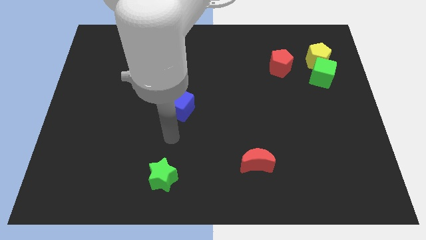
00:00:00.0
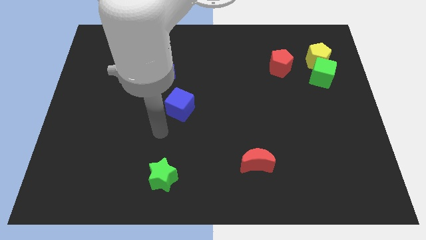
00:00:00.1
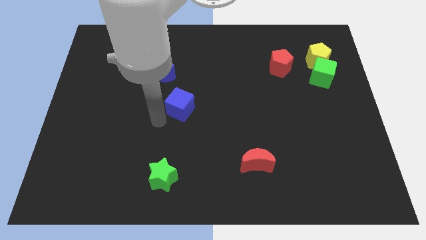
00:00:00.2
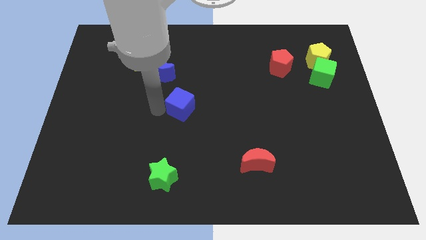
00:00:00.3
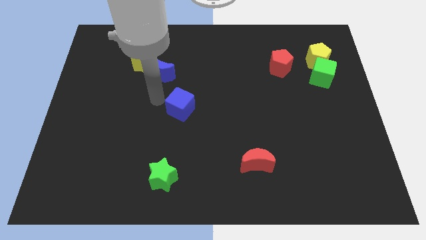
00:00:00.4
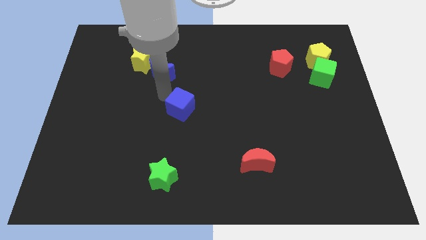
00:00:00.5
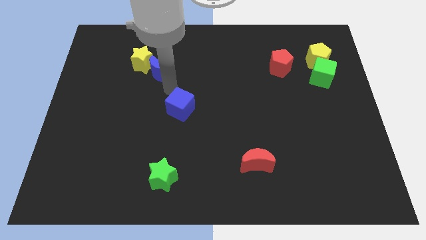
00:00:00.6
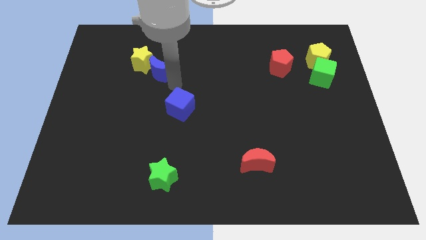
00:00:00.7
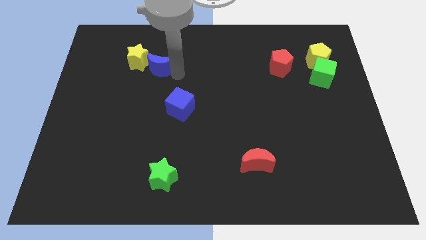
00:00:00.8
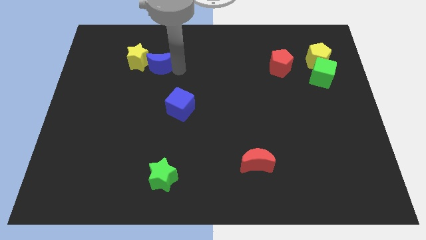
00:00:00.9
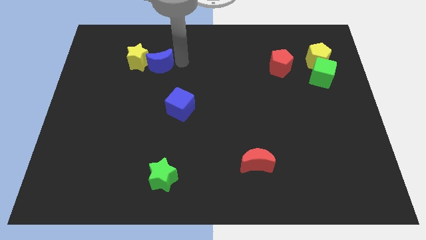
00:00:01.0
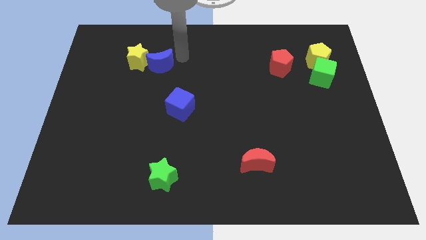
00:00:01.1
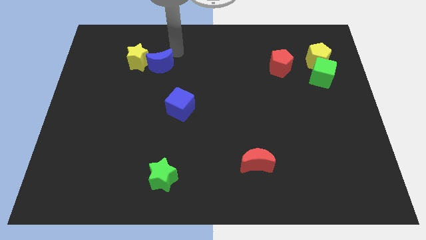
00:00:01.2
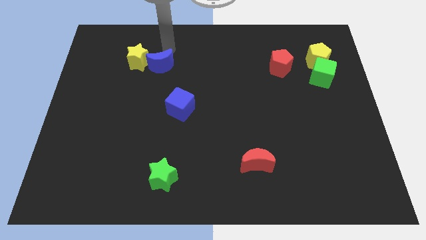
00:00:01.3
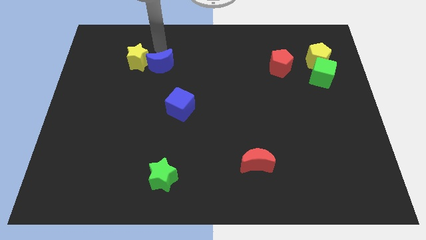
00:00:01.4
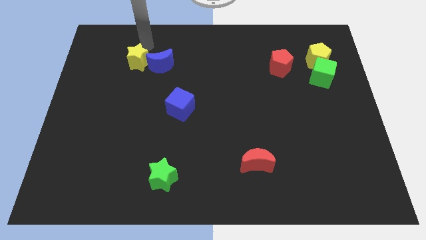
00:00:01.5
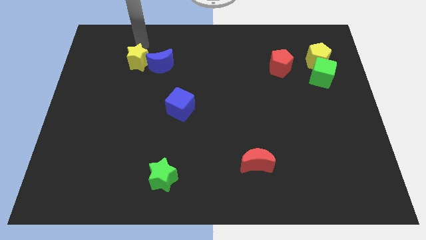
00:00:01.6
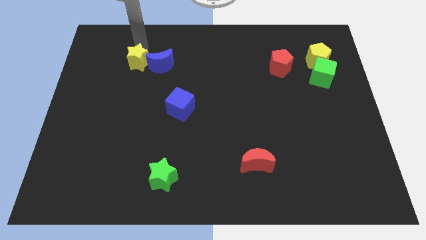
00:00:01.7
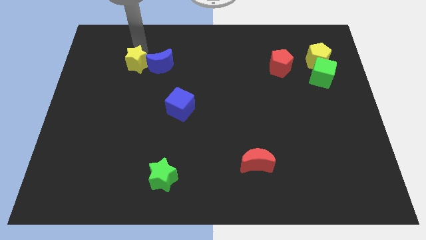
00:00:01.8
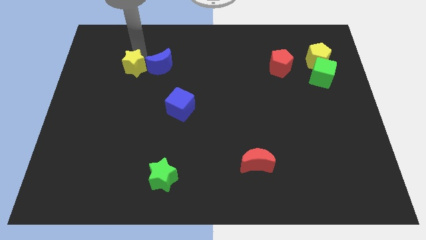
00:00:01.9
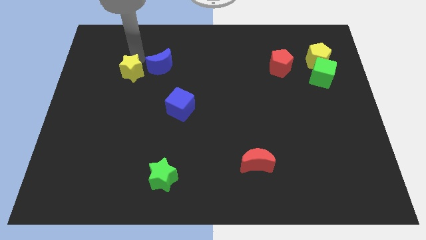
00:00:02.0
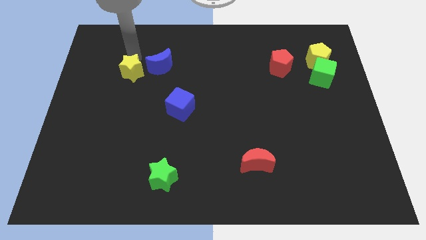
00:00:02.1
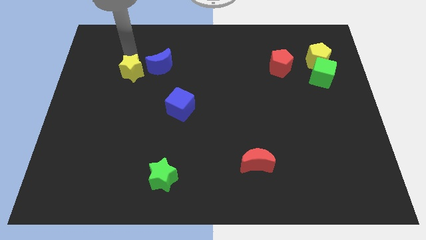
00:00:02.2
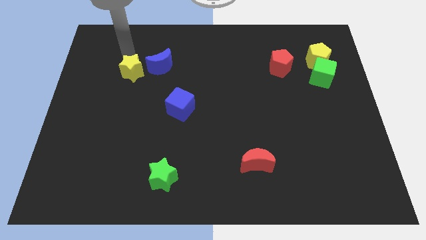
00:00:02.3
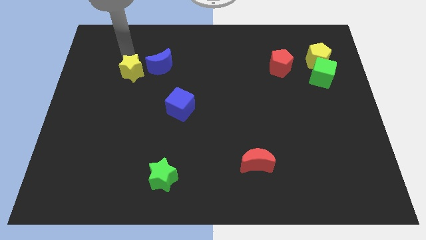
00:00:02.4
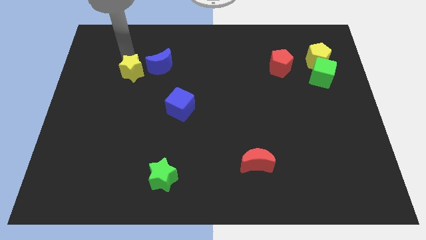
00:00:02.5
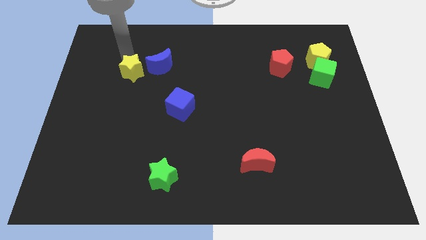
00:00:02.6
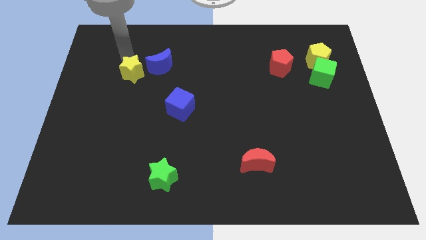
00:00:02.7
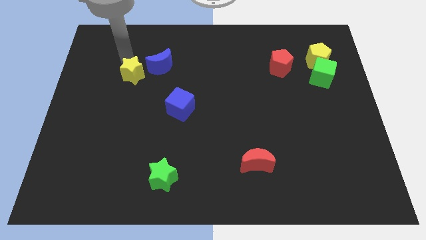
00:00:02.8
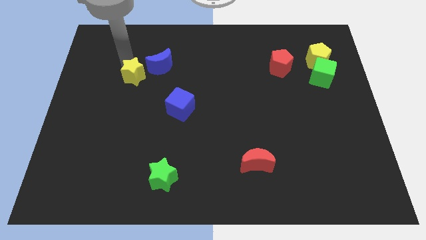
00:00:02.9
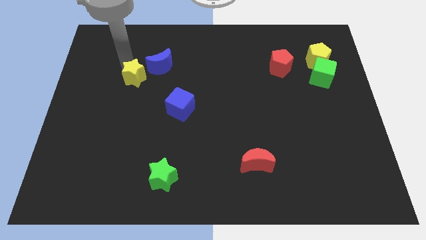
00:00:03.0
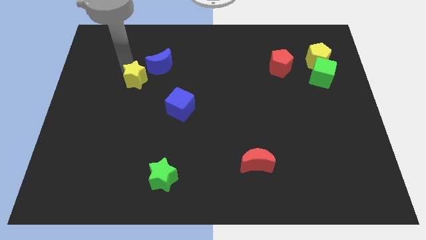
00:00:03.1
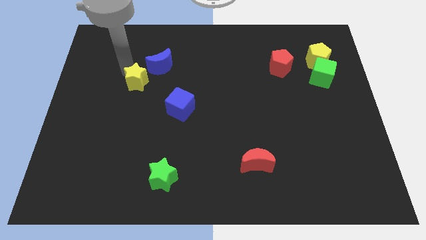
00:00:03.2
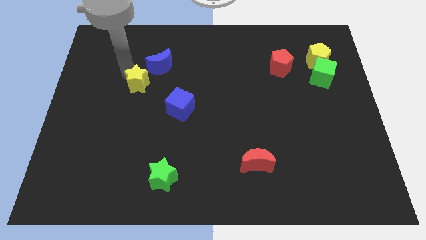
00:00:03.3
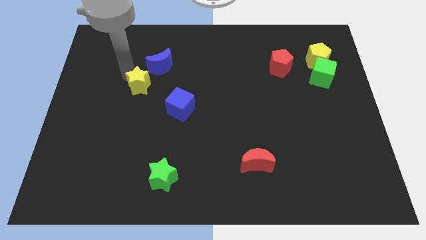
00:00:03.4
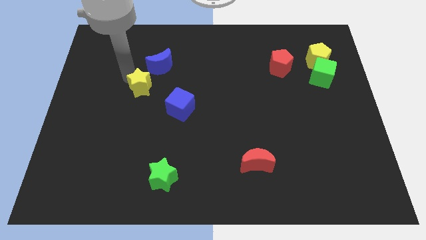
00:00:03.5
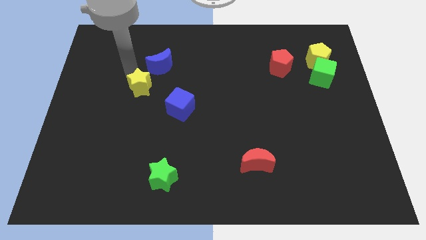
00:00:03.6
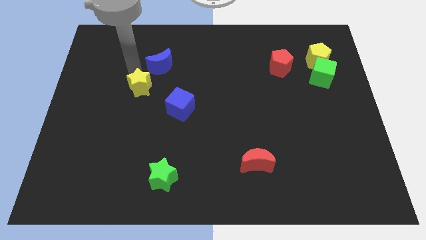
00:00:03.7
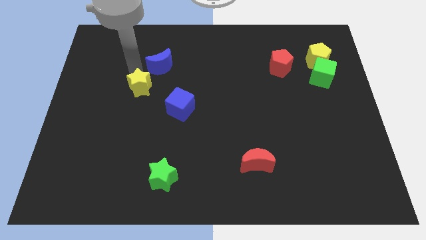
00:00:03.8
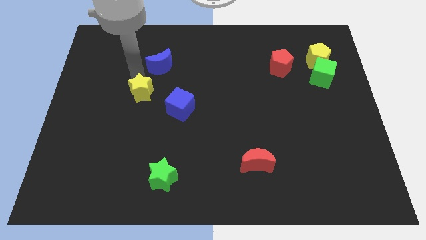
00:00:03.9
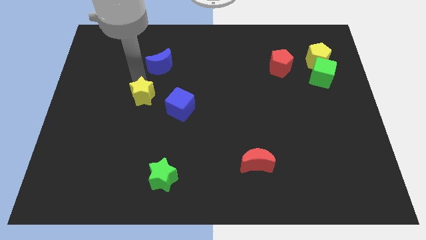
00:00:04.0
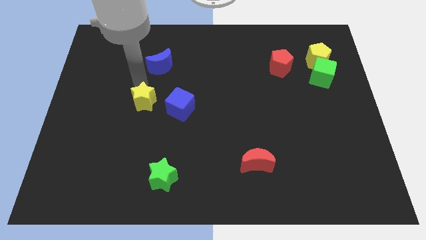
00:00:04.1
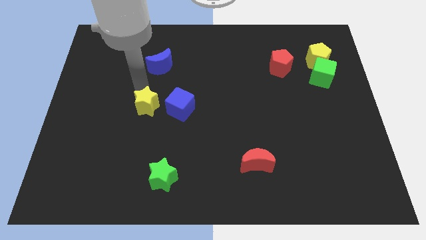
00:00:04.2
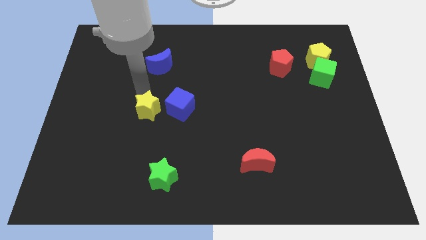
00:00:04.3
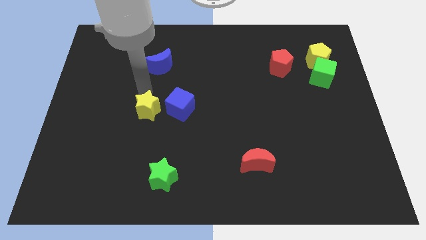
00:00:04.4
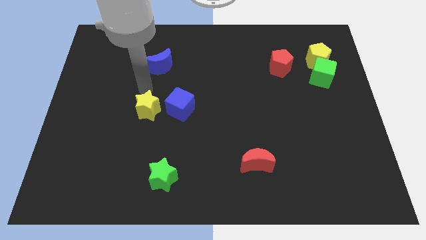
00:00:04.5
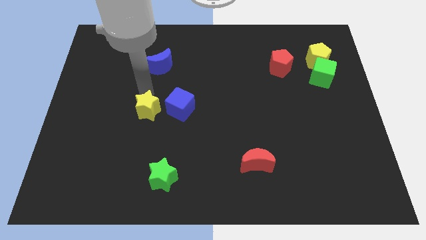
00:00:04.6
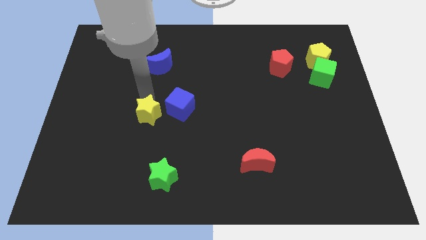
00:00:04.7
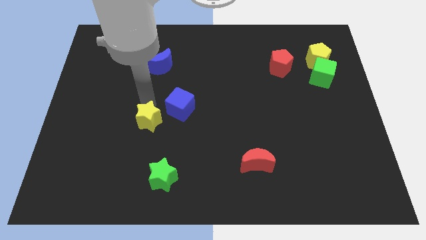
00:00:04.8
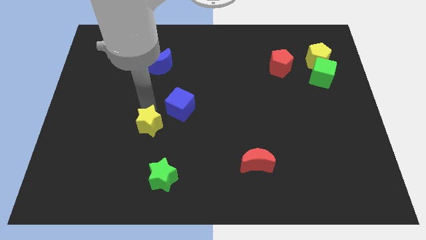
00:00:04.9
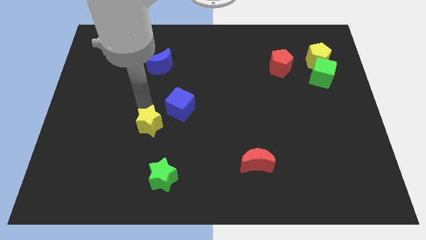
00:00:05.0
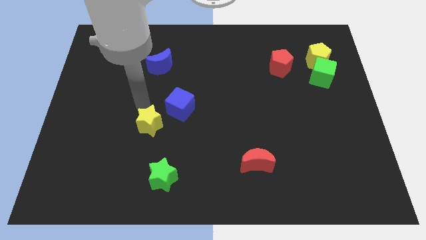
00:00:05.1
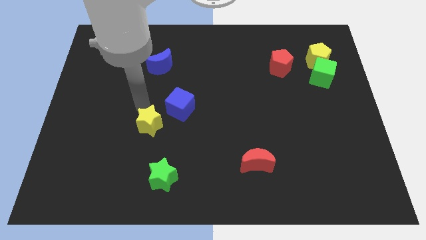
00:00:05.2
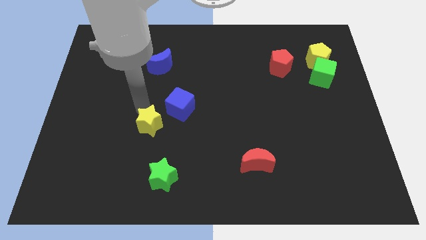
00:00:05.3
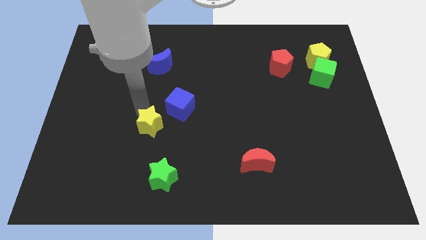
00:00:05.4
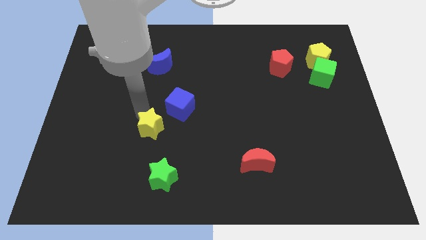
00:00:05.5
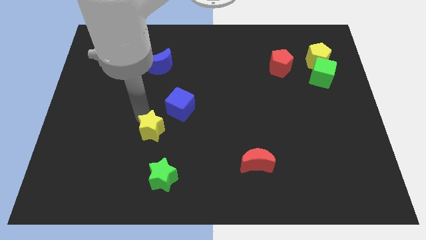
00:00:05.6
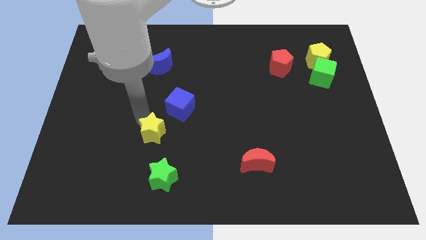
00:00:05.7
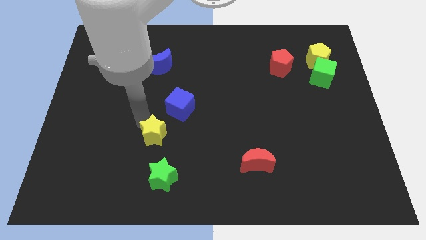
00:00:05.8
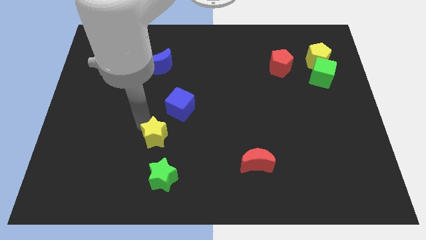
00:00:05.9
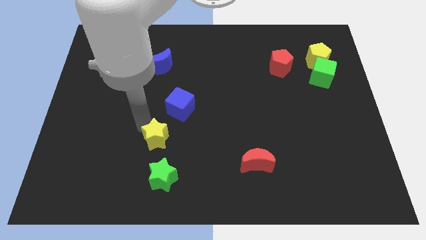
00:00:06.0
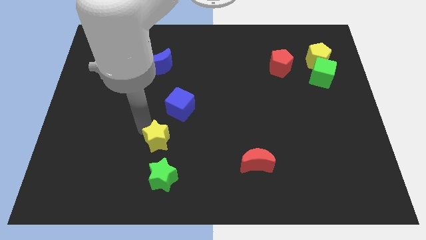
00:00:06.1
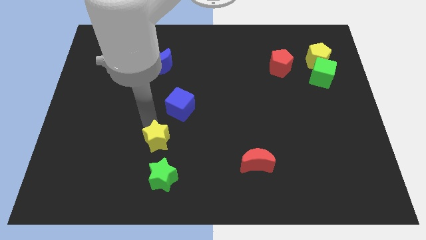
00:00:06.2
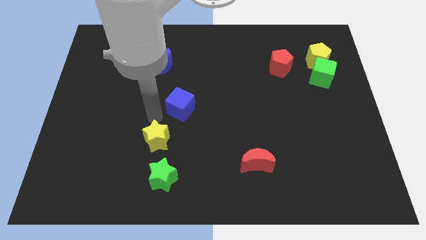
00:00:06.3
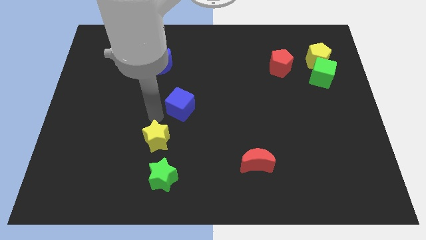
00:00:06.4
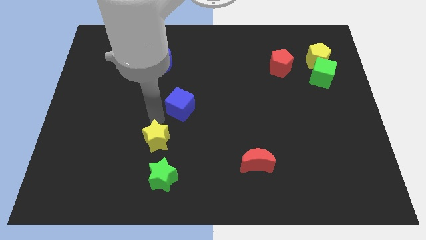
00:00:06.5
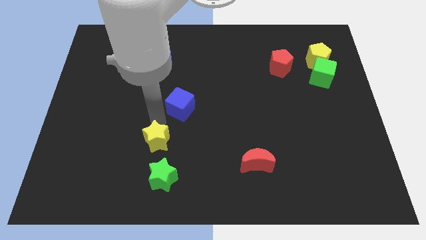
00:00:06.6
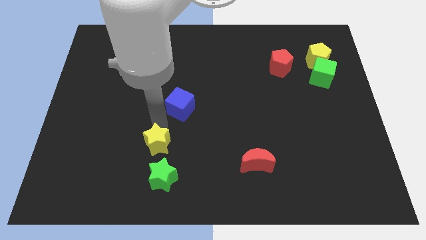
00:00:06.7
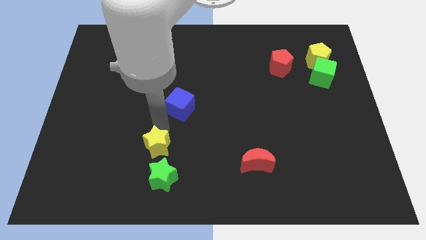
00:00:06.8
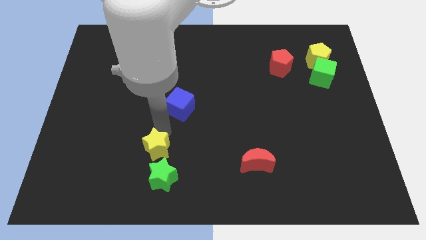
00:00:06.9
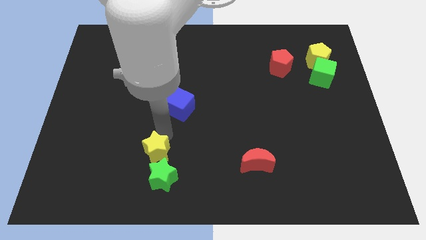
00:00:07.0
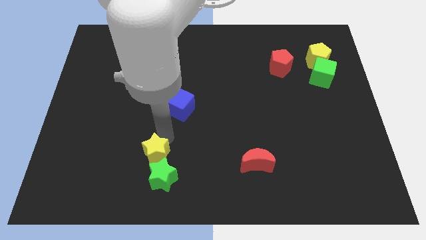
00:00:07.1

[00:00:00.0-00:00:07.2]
push the yellow star close to the green star
